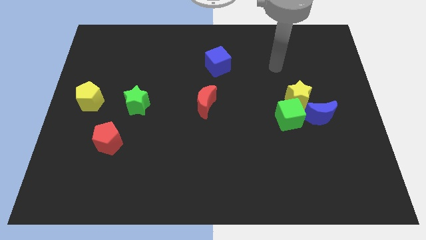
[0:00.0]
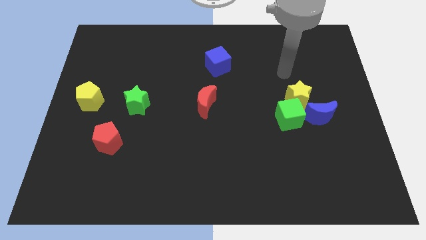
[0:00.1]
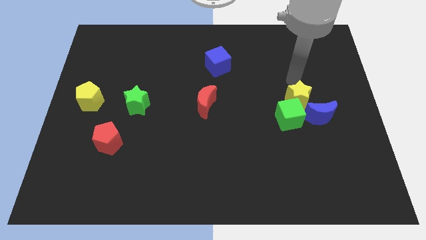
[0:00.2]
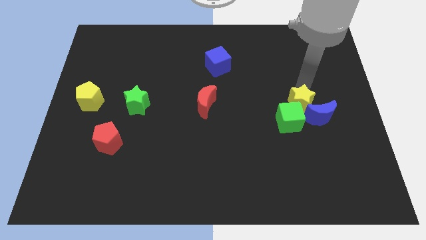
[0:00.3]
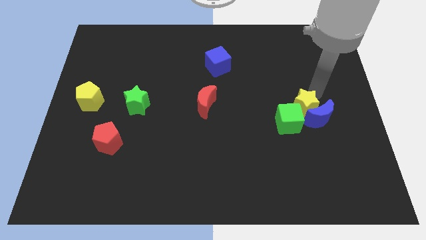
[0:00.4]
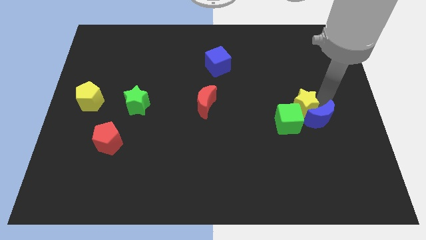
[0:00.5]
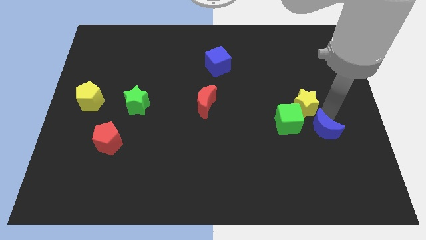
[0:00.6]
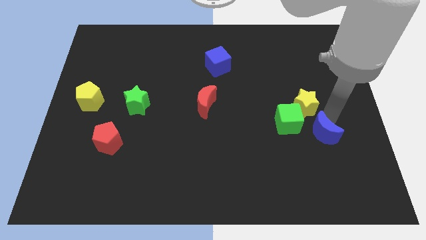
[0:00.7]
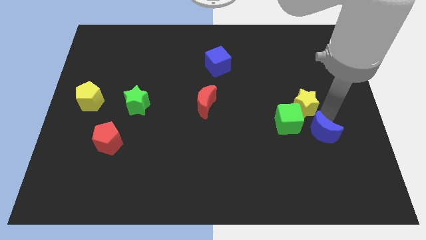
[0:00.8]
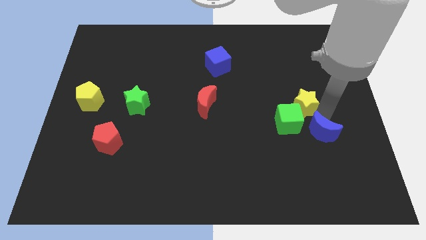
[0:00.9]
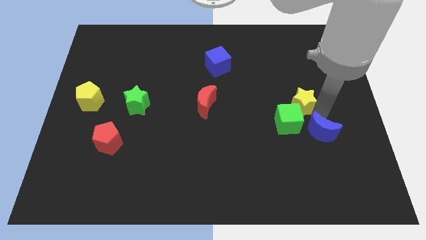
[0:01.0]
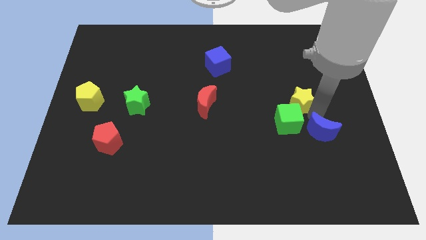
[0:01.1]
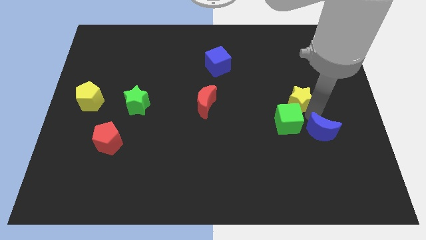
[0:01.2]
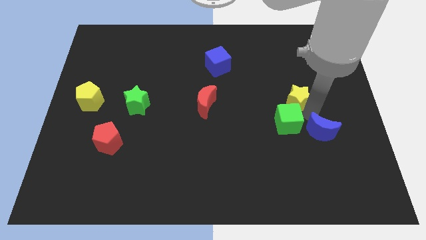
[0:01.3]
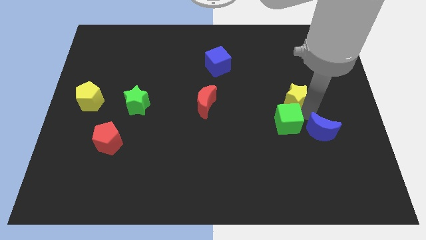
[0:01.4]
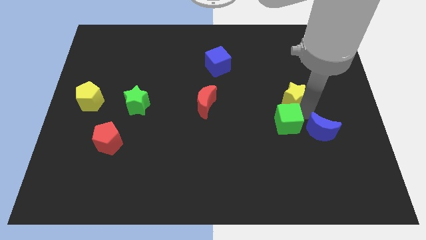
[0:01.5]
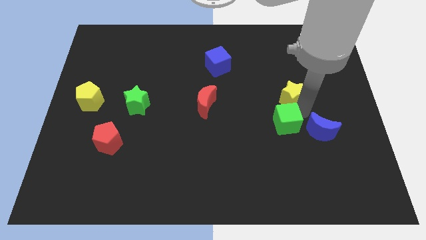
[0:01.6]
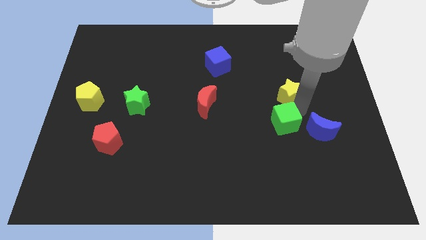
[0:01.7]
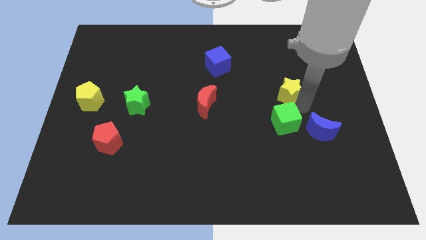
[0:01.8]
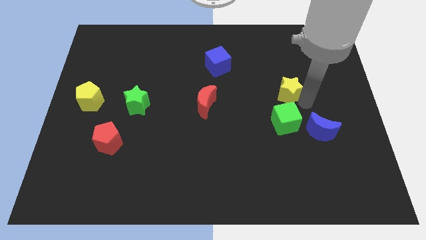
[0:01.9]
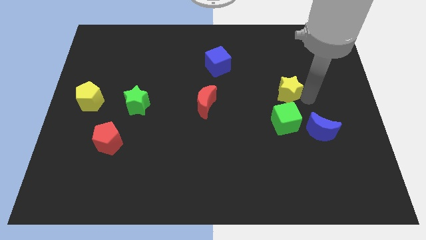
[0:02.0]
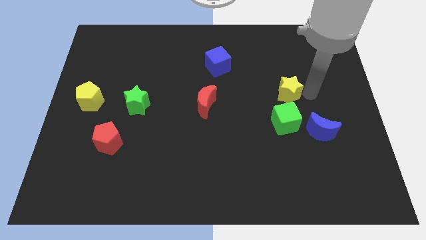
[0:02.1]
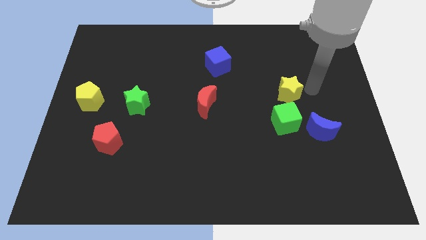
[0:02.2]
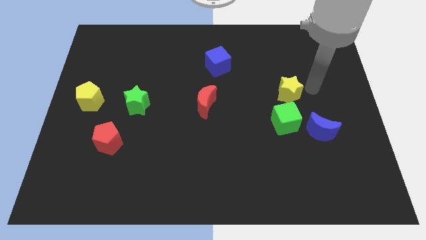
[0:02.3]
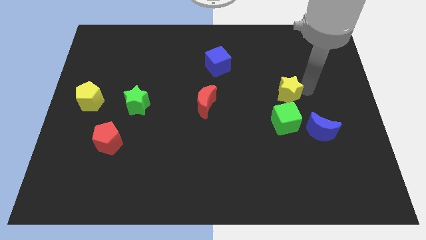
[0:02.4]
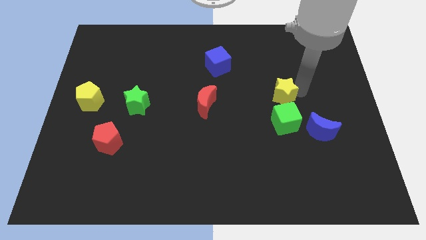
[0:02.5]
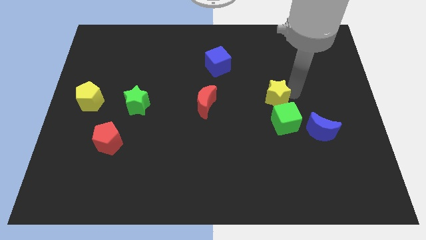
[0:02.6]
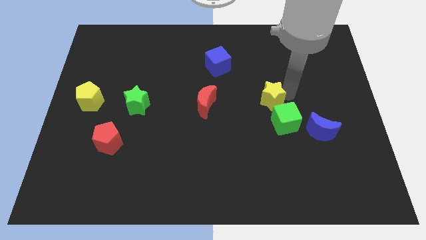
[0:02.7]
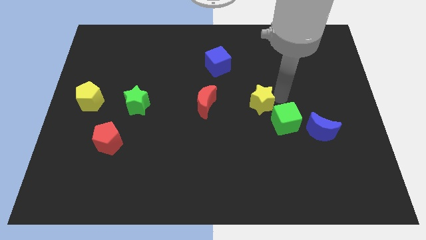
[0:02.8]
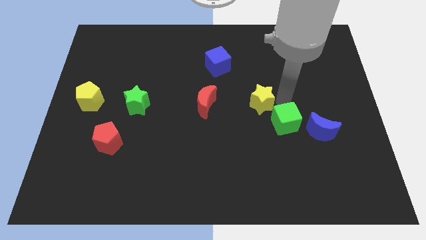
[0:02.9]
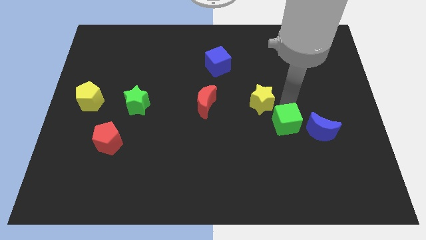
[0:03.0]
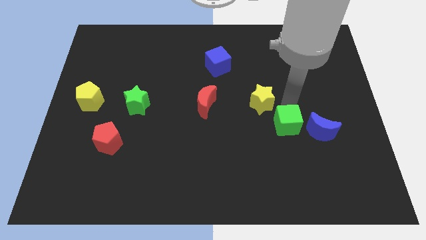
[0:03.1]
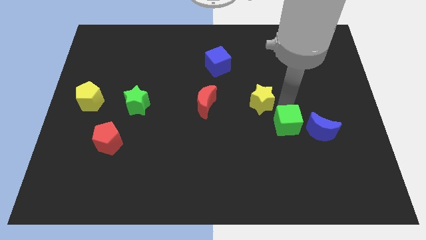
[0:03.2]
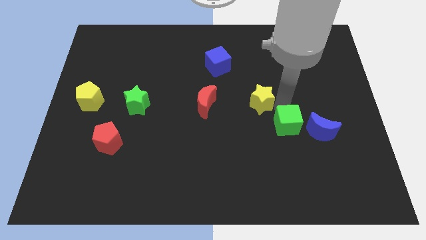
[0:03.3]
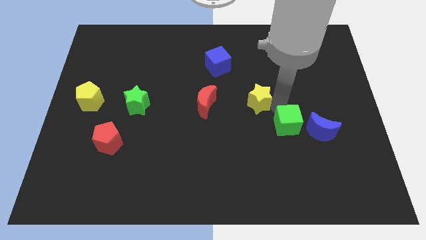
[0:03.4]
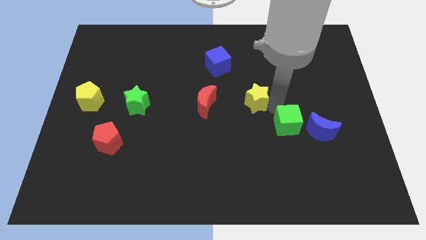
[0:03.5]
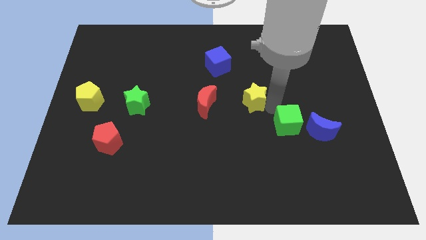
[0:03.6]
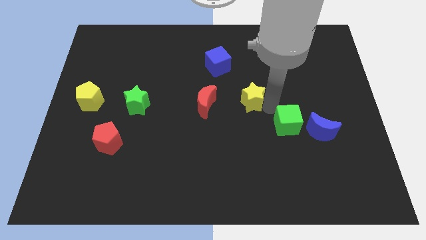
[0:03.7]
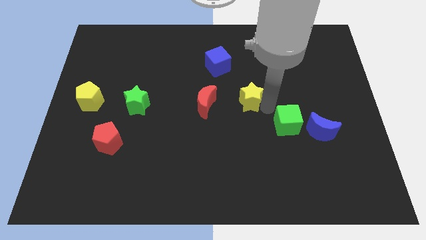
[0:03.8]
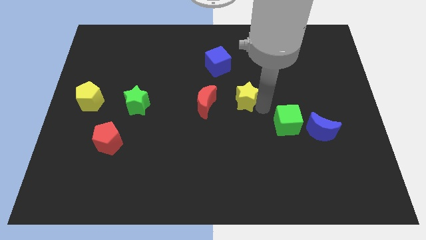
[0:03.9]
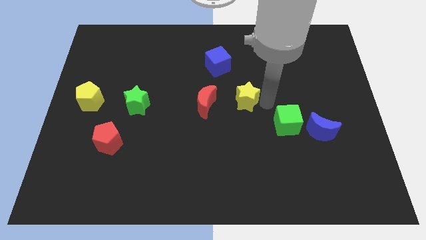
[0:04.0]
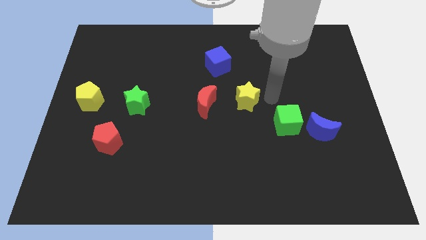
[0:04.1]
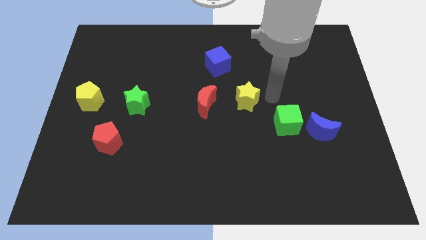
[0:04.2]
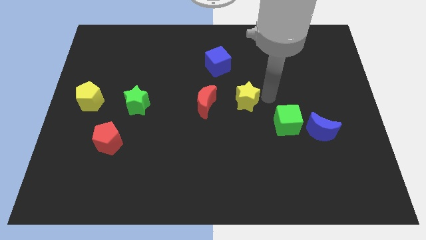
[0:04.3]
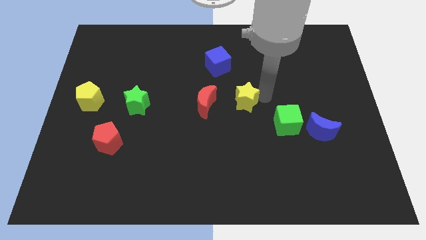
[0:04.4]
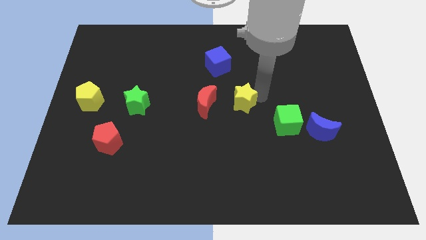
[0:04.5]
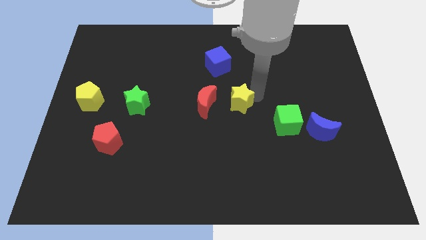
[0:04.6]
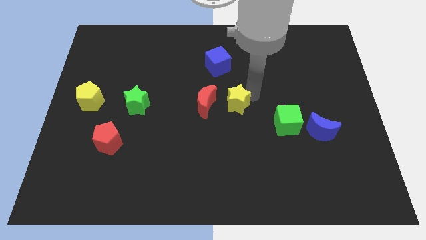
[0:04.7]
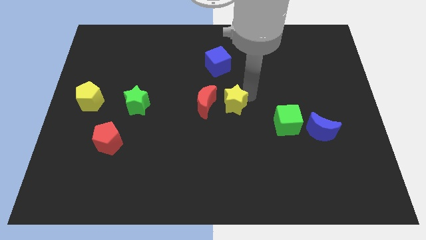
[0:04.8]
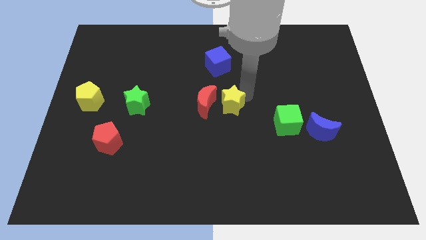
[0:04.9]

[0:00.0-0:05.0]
push the yellow star close to the red moon

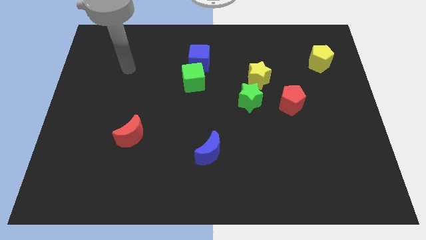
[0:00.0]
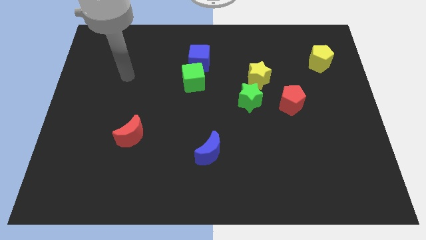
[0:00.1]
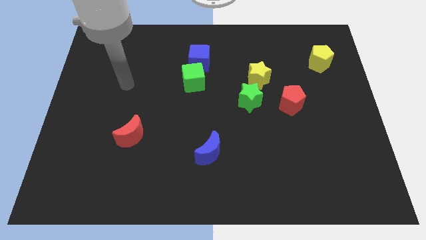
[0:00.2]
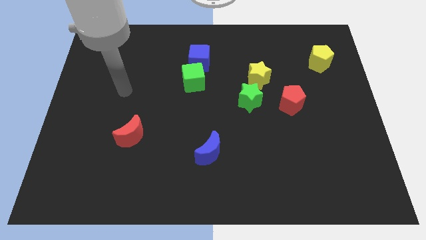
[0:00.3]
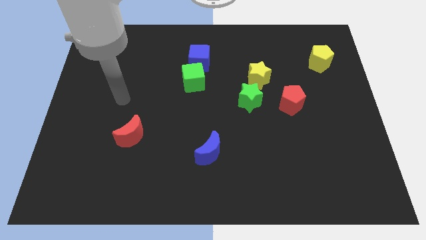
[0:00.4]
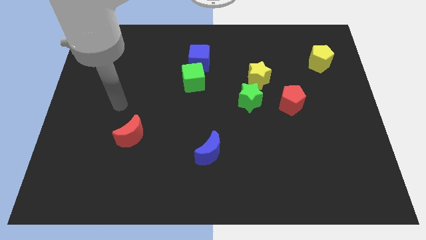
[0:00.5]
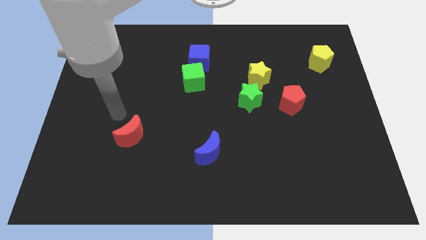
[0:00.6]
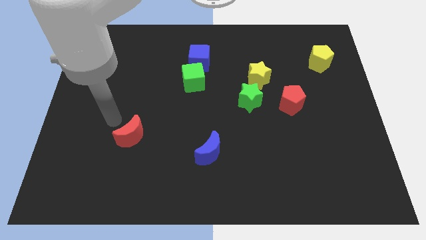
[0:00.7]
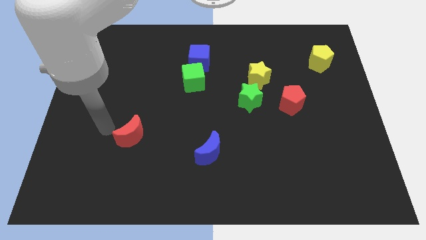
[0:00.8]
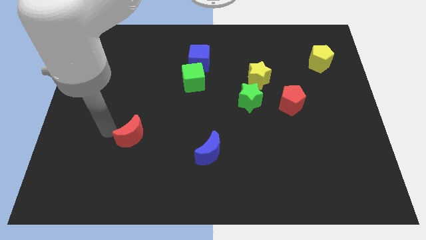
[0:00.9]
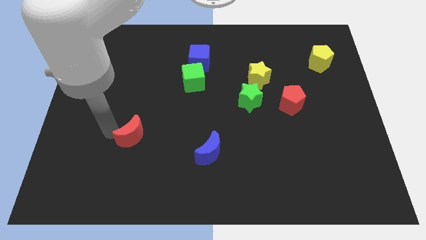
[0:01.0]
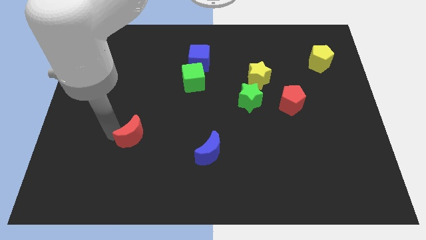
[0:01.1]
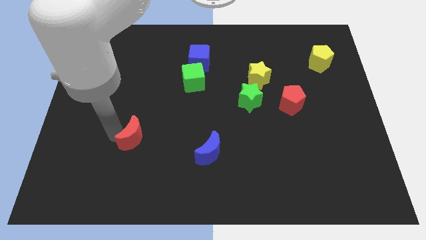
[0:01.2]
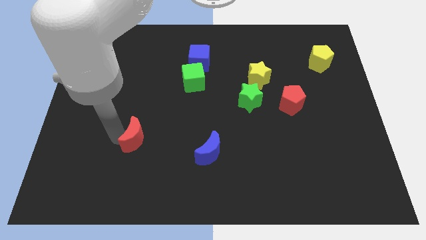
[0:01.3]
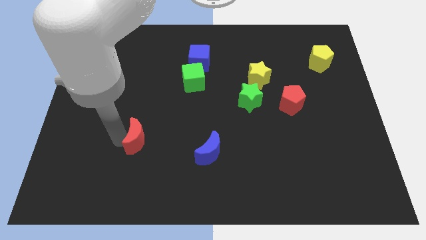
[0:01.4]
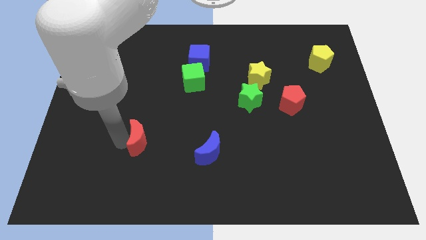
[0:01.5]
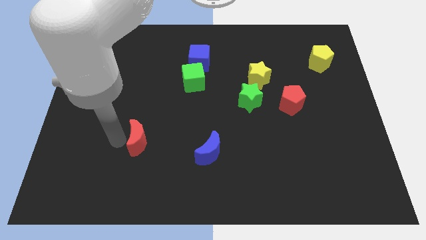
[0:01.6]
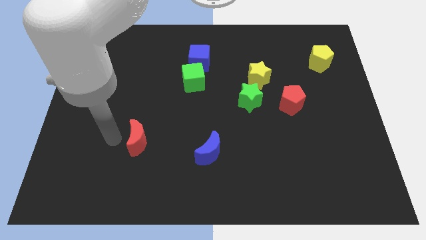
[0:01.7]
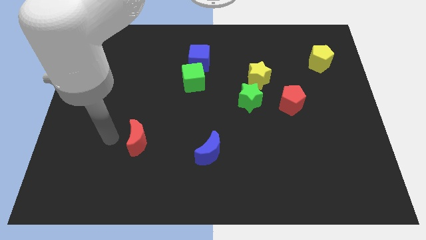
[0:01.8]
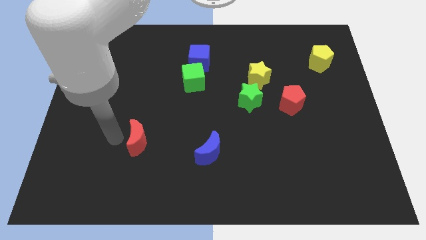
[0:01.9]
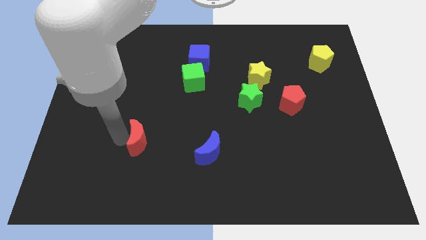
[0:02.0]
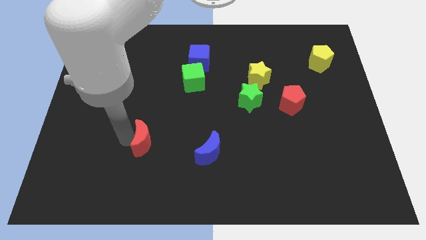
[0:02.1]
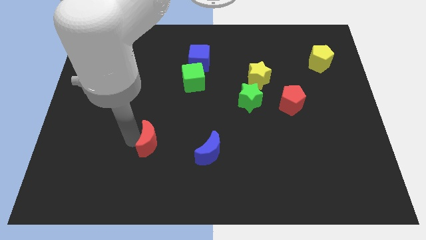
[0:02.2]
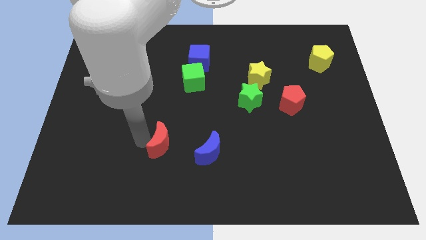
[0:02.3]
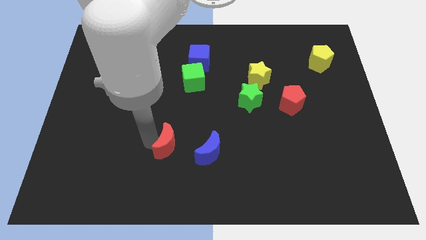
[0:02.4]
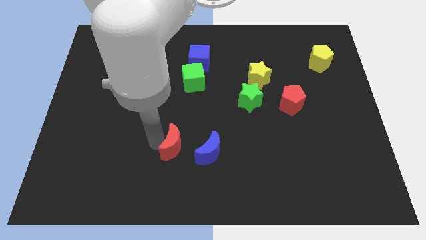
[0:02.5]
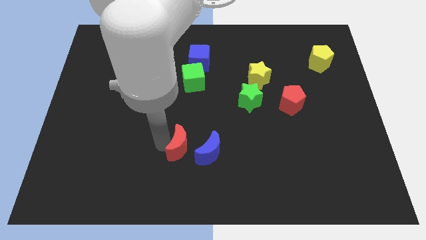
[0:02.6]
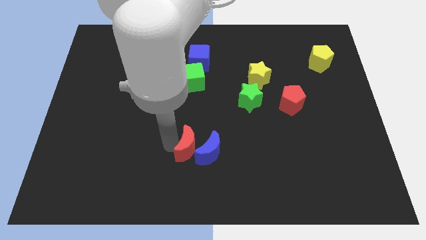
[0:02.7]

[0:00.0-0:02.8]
push the red moon towards the blue moon
